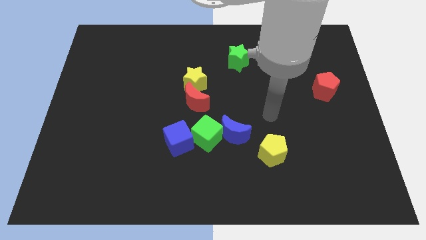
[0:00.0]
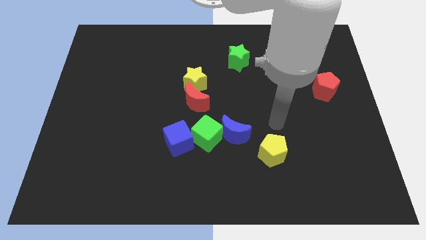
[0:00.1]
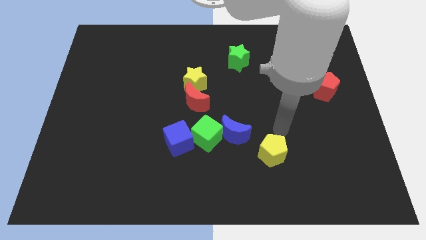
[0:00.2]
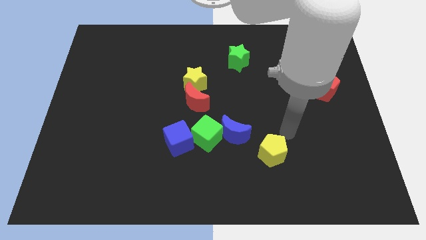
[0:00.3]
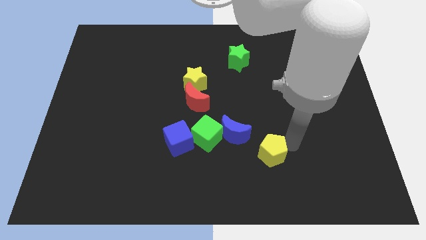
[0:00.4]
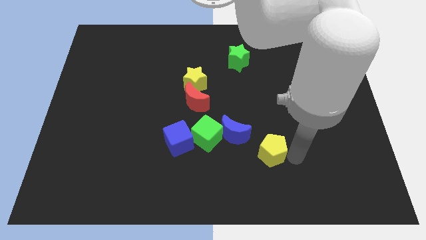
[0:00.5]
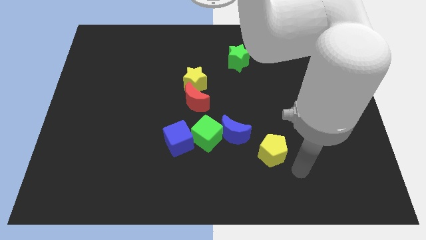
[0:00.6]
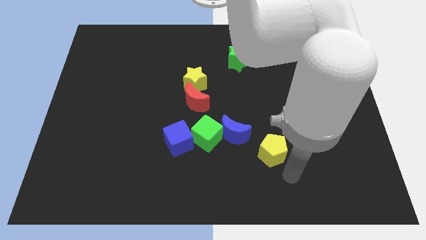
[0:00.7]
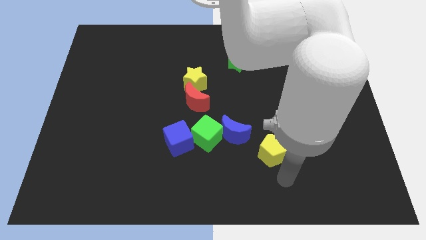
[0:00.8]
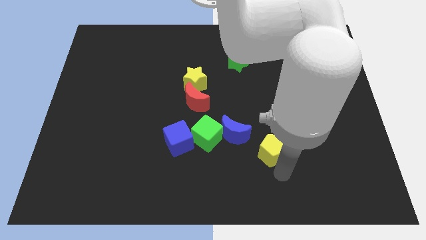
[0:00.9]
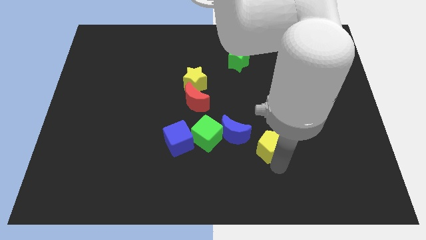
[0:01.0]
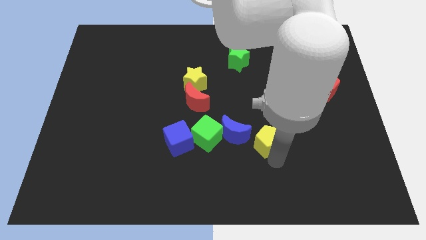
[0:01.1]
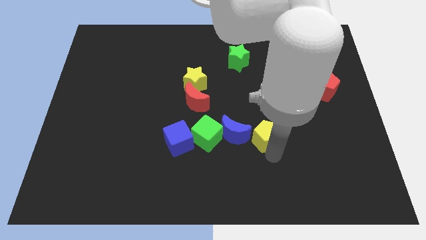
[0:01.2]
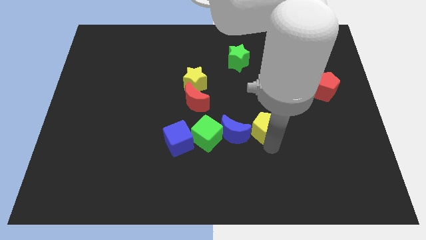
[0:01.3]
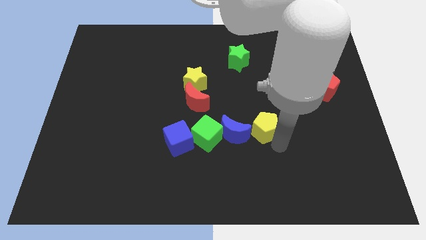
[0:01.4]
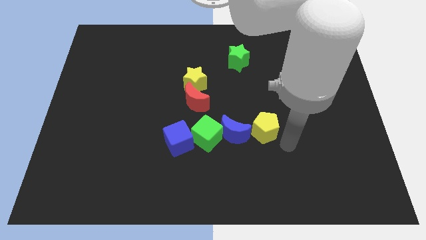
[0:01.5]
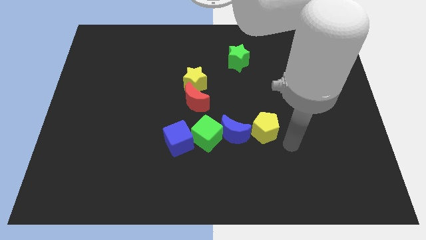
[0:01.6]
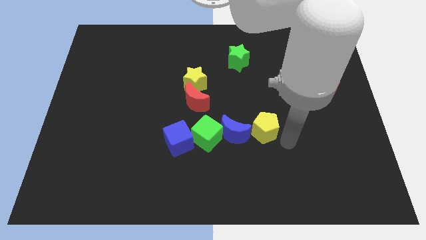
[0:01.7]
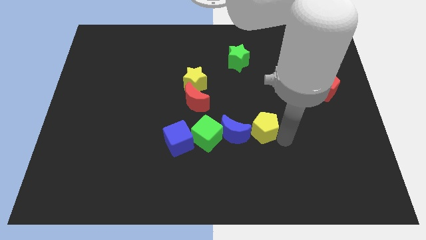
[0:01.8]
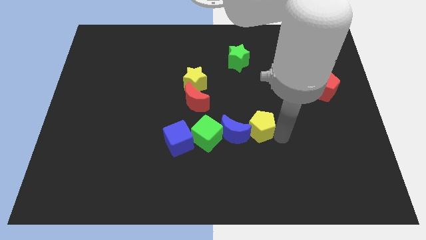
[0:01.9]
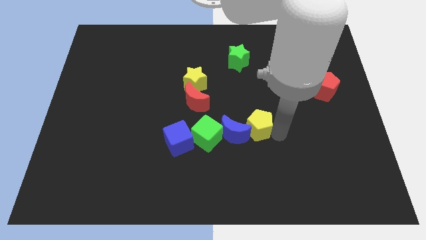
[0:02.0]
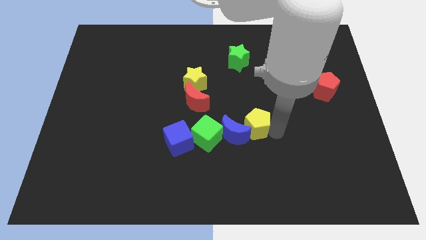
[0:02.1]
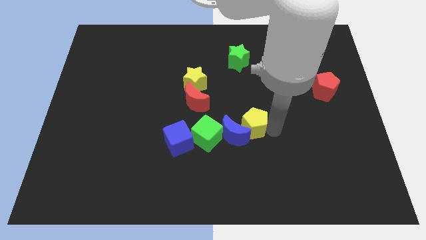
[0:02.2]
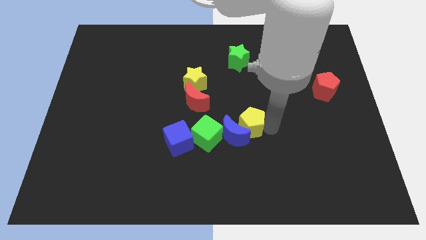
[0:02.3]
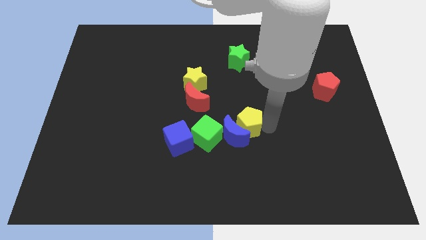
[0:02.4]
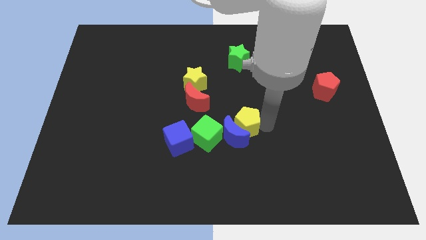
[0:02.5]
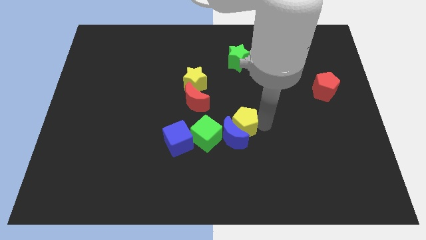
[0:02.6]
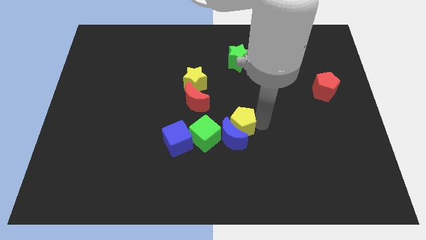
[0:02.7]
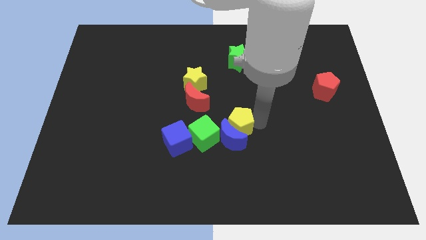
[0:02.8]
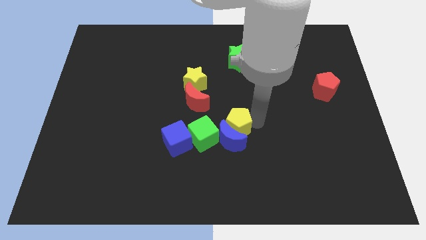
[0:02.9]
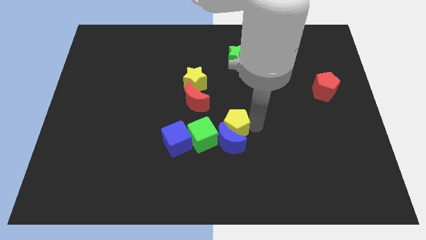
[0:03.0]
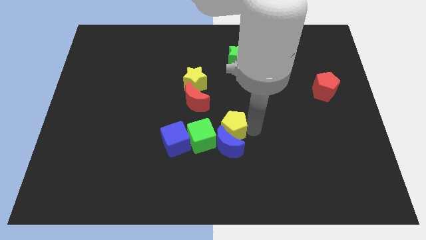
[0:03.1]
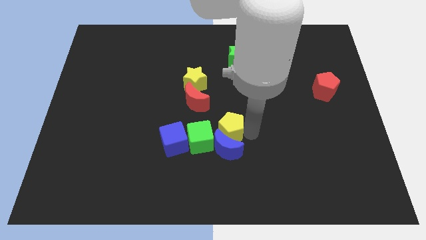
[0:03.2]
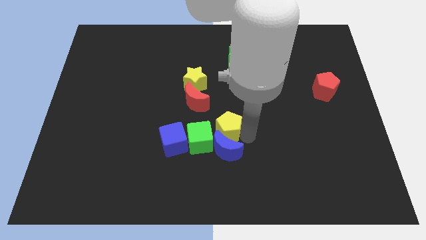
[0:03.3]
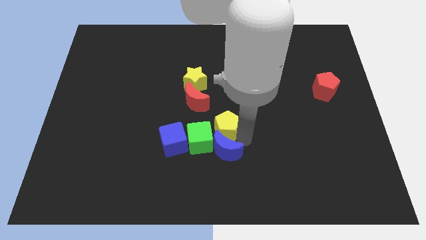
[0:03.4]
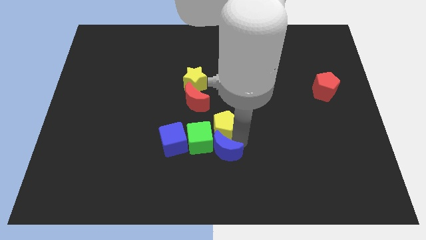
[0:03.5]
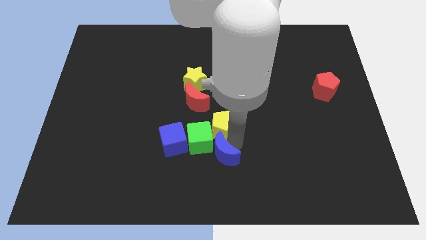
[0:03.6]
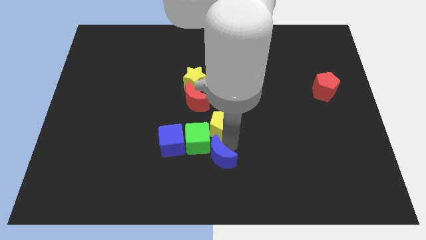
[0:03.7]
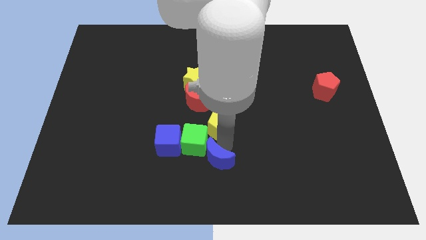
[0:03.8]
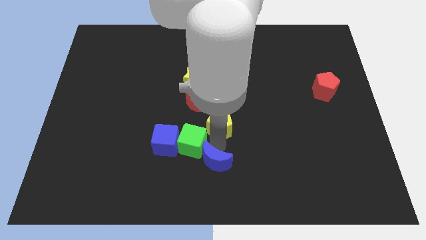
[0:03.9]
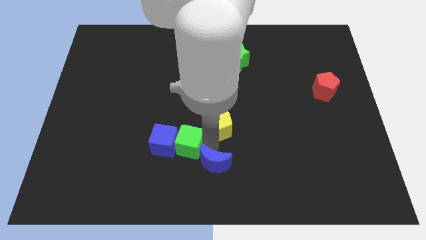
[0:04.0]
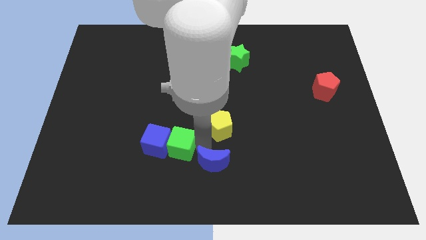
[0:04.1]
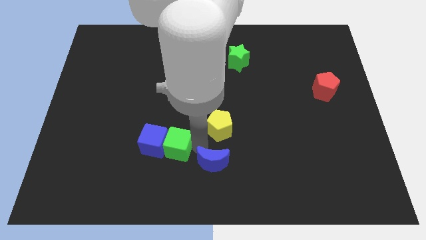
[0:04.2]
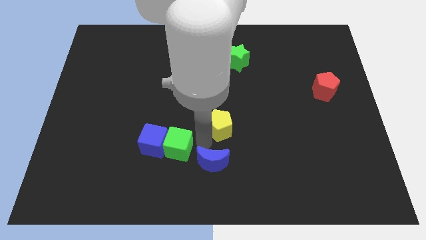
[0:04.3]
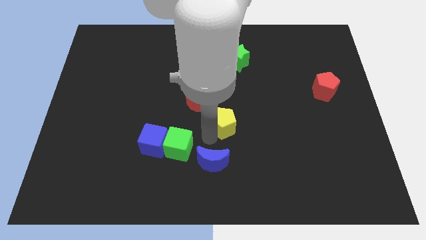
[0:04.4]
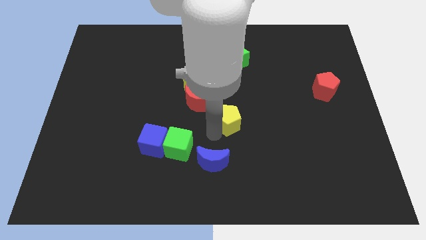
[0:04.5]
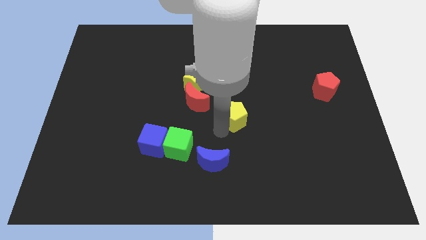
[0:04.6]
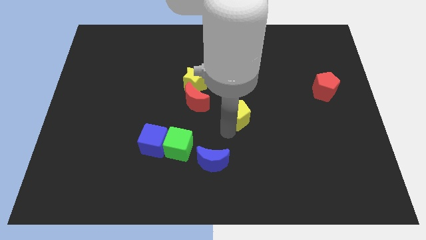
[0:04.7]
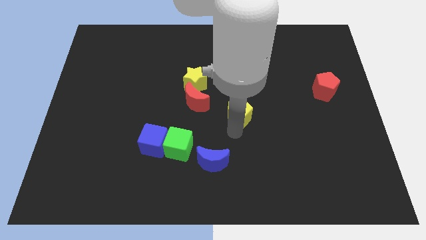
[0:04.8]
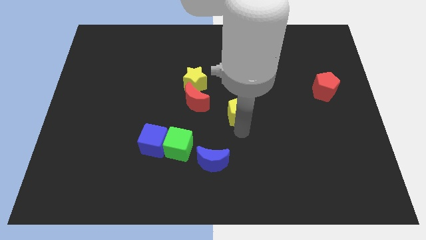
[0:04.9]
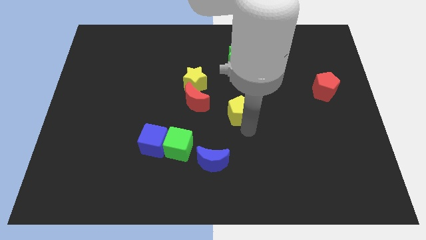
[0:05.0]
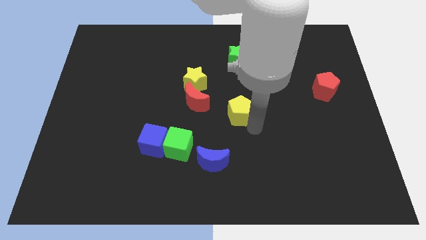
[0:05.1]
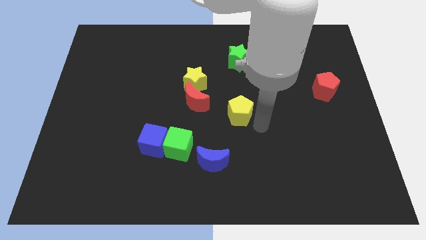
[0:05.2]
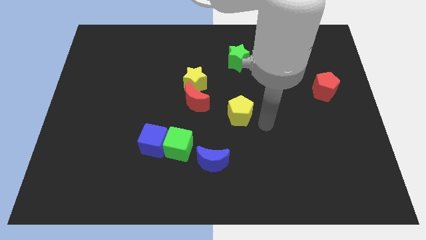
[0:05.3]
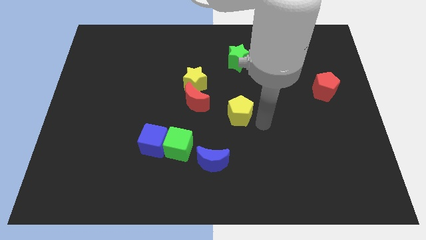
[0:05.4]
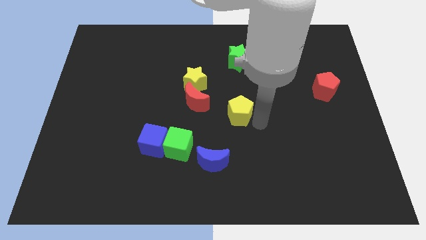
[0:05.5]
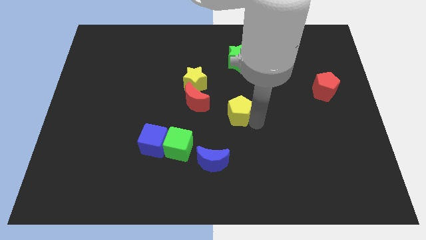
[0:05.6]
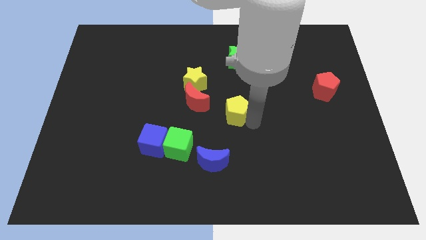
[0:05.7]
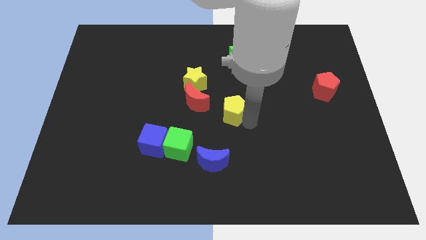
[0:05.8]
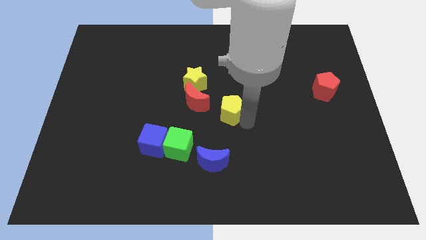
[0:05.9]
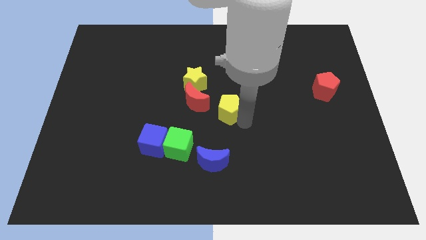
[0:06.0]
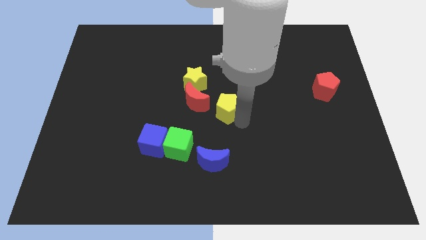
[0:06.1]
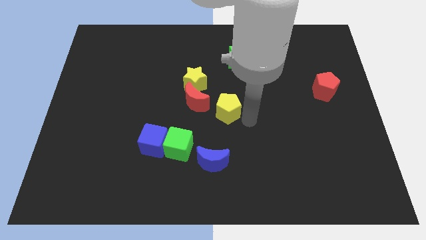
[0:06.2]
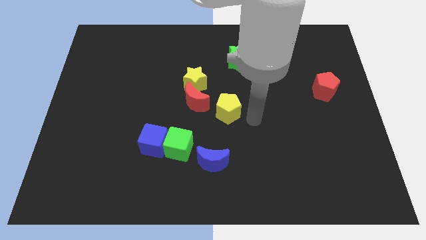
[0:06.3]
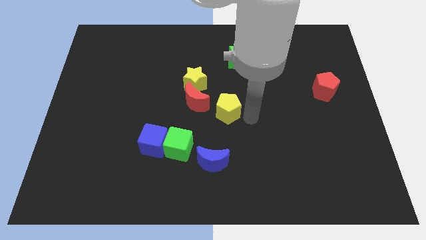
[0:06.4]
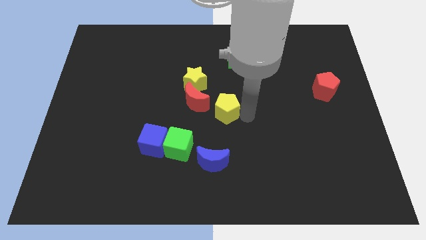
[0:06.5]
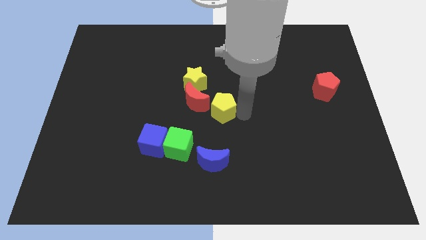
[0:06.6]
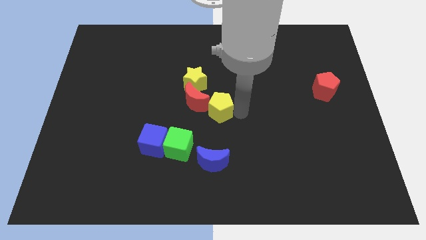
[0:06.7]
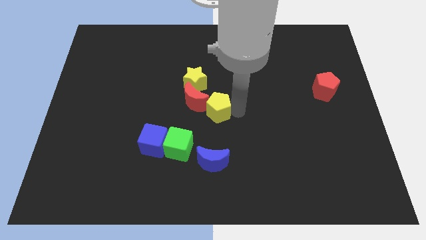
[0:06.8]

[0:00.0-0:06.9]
put the yellow pentagon towards the red moon
